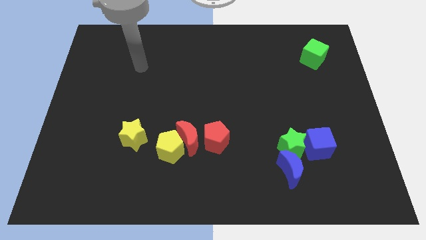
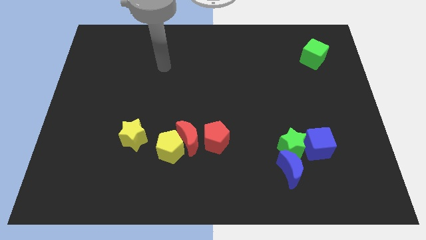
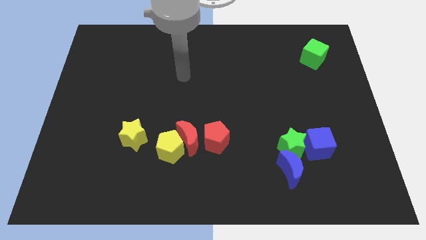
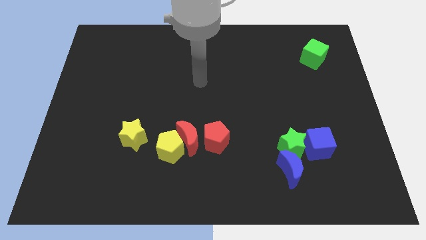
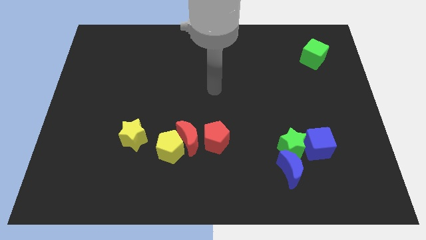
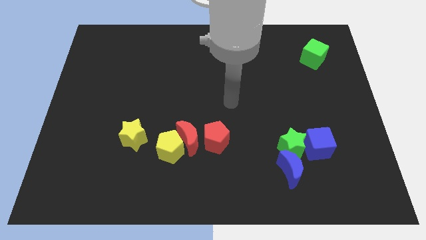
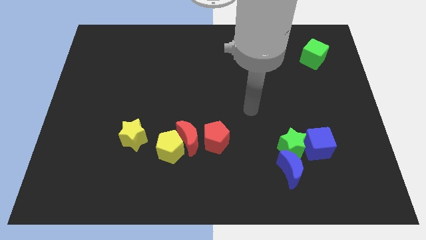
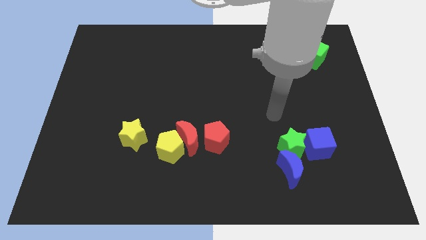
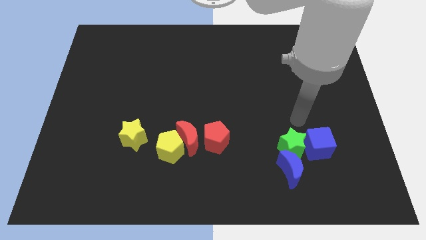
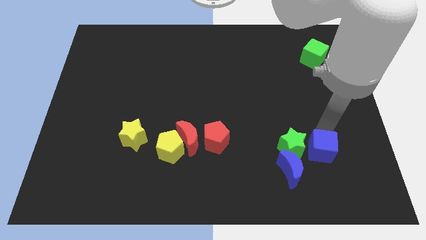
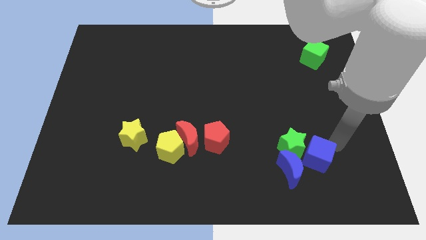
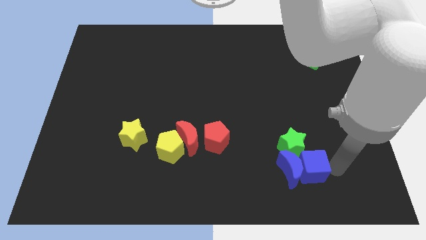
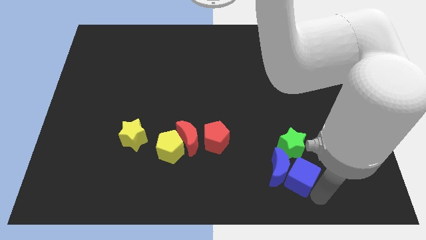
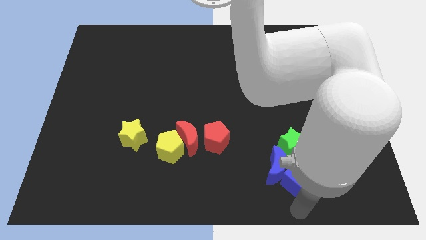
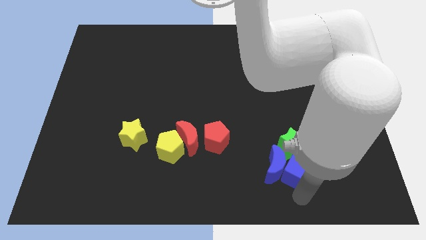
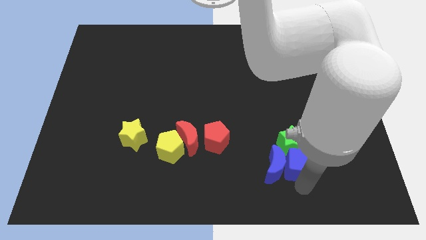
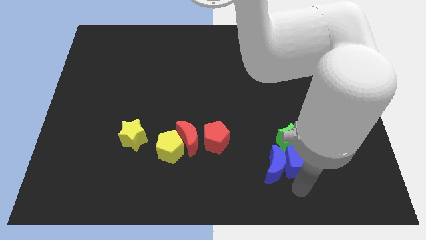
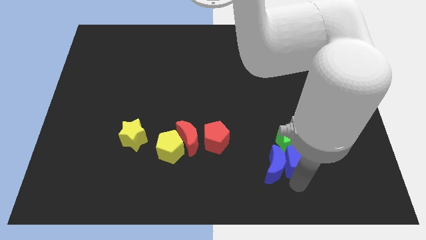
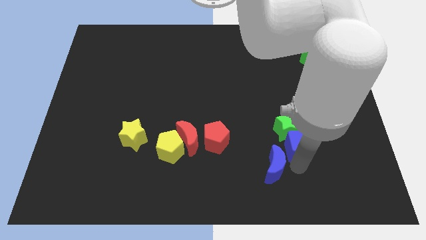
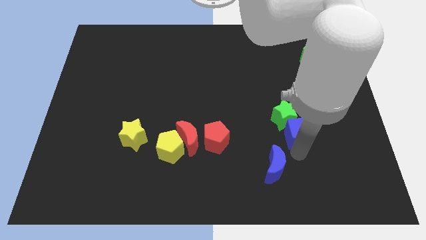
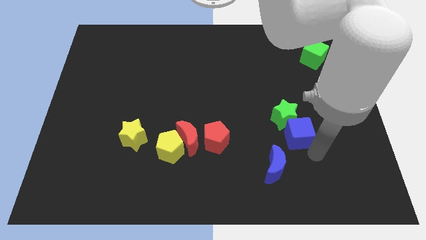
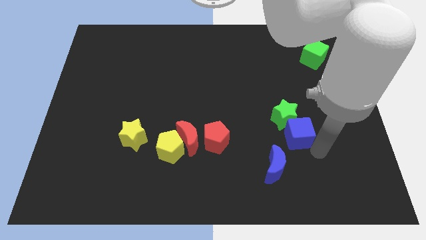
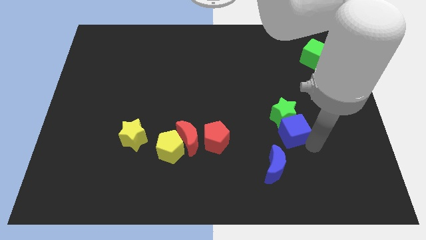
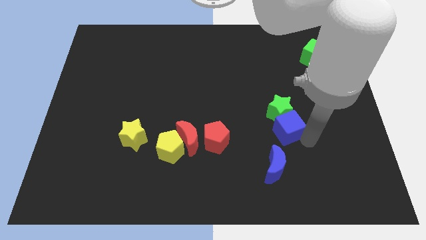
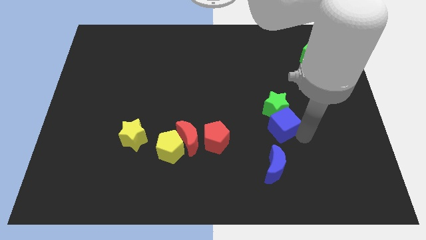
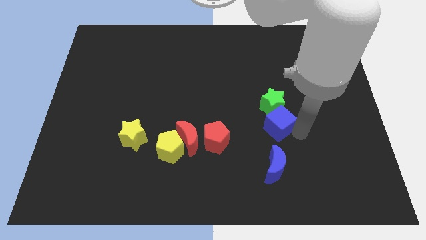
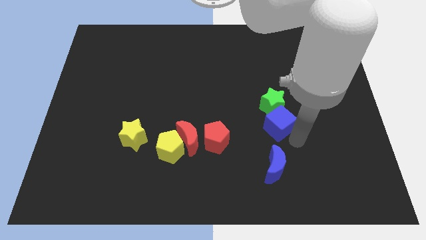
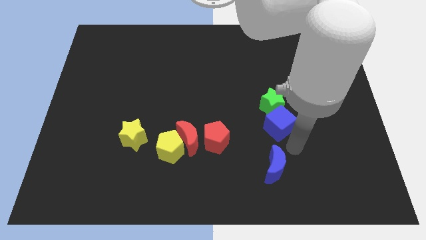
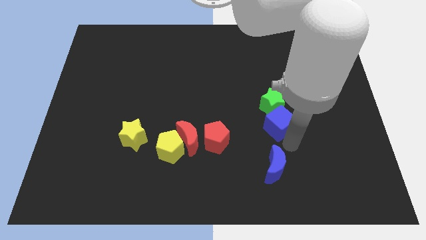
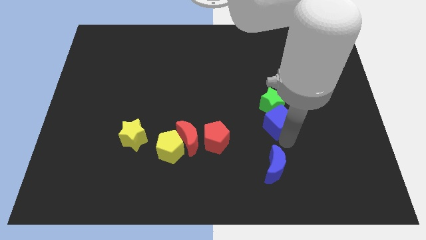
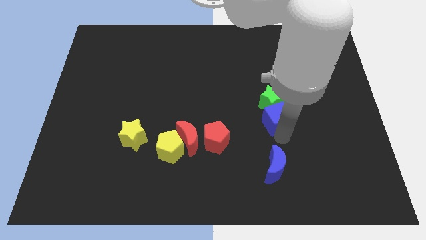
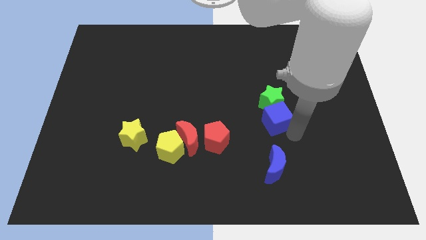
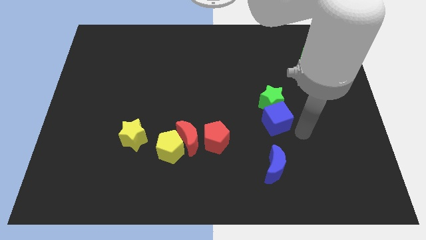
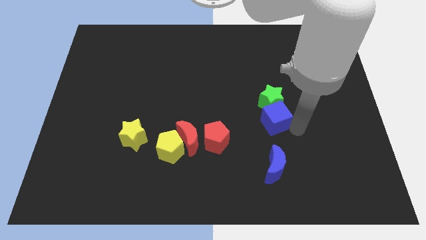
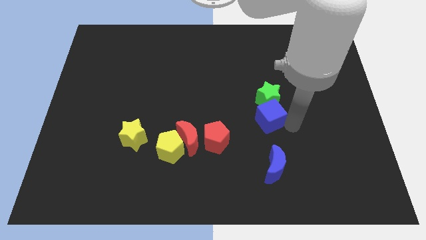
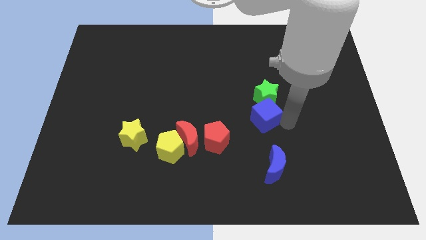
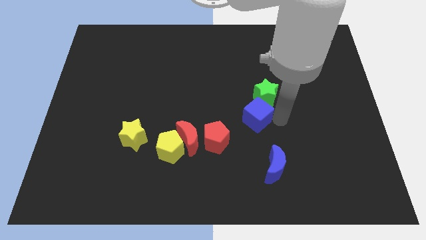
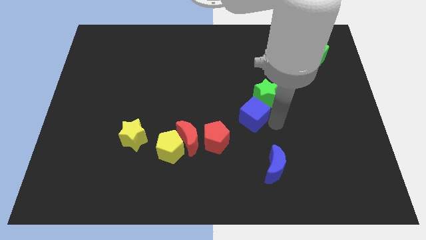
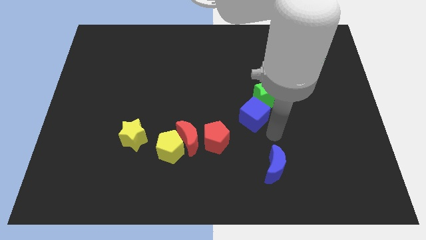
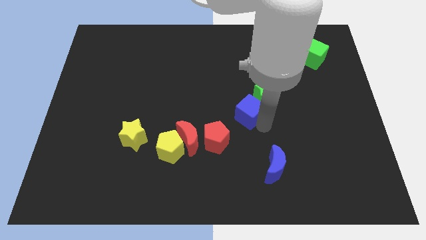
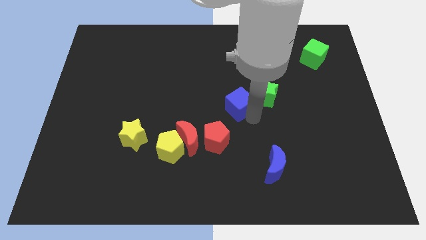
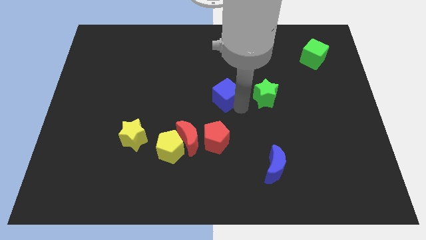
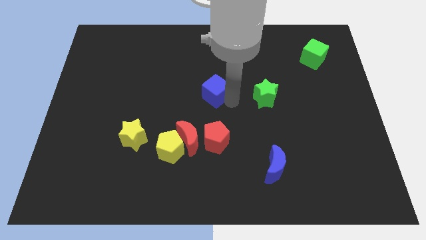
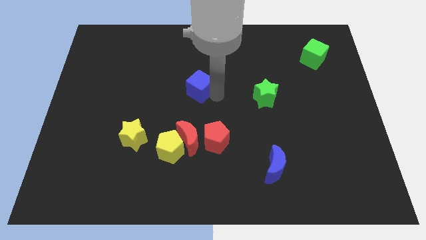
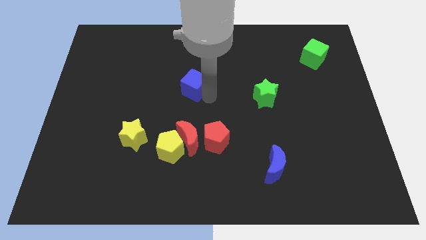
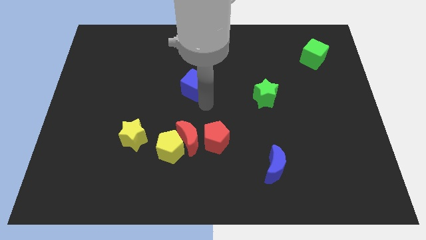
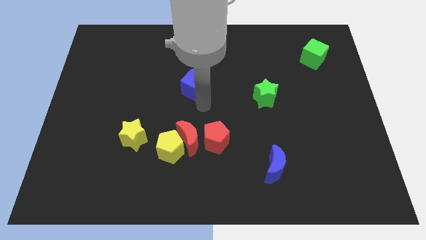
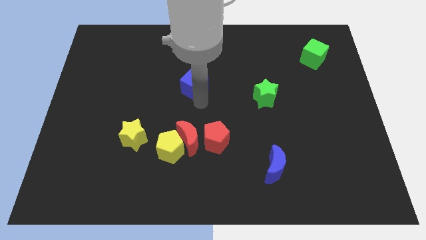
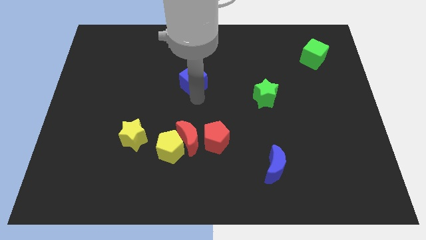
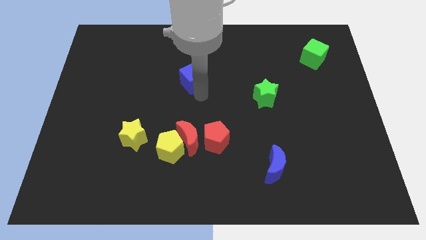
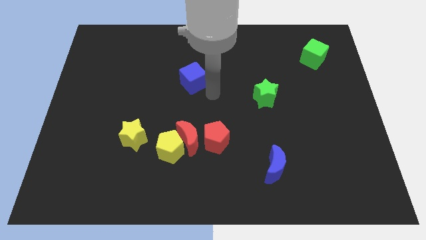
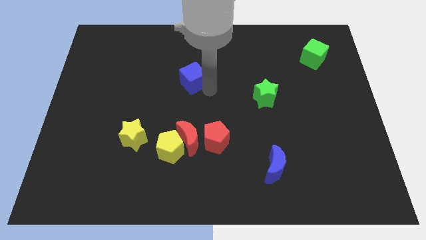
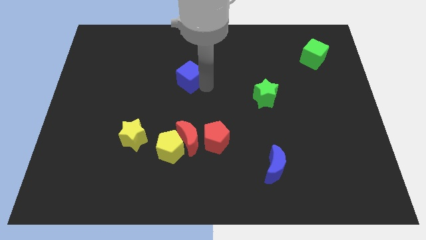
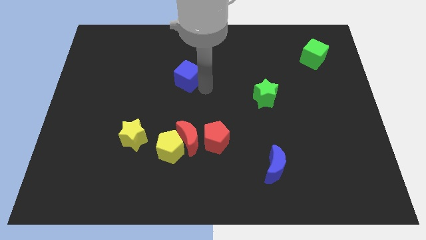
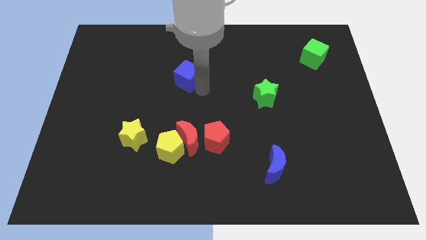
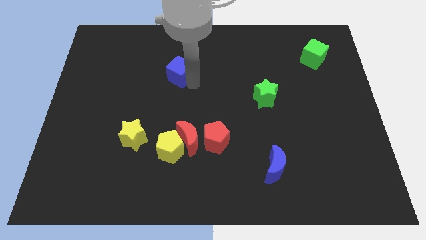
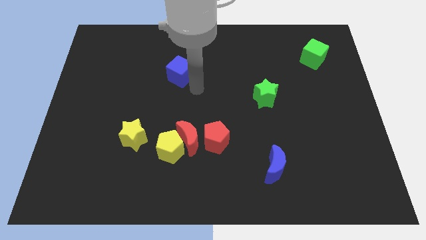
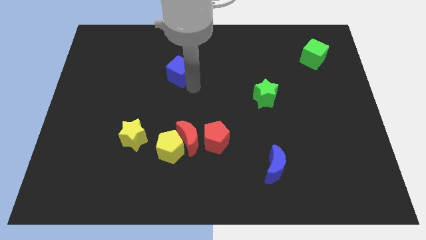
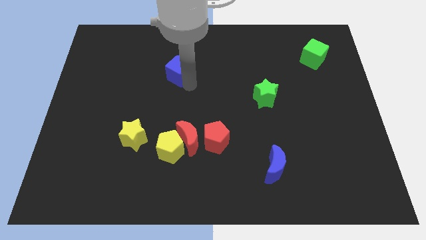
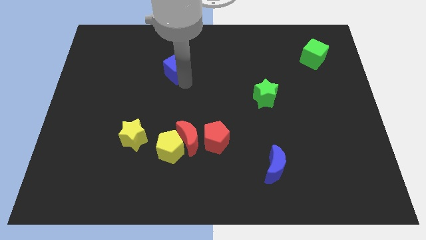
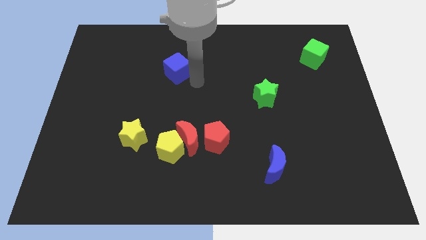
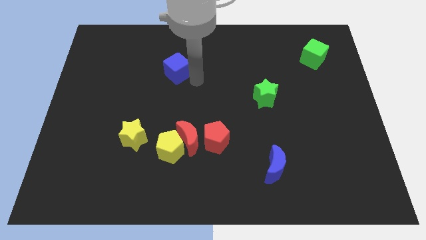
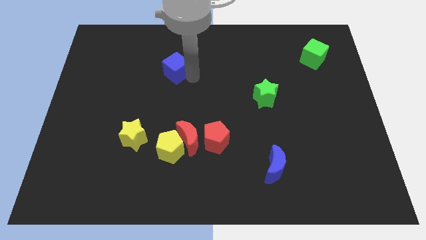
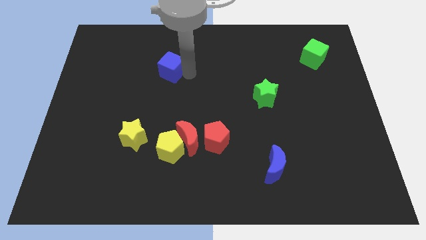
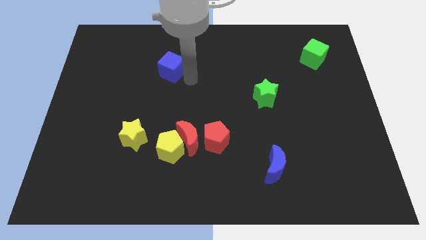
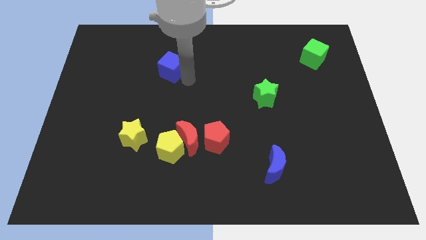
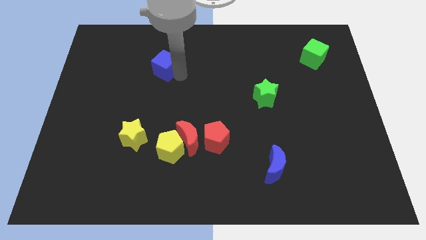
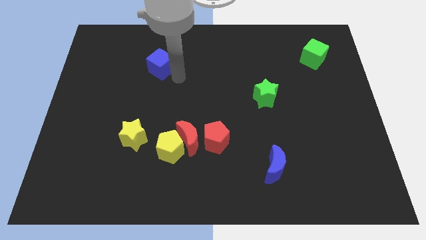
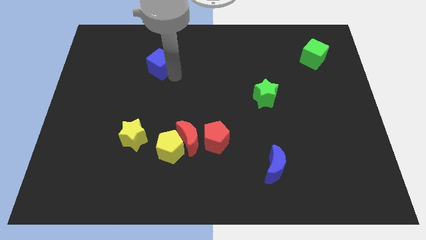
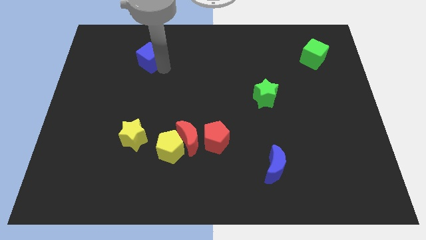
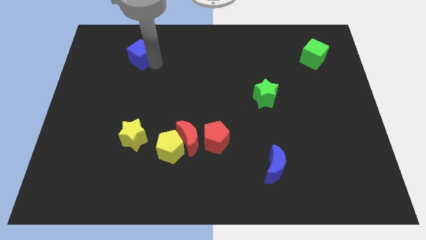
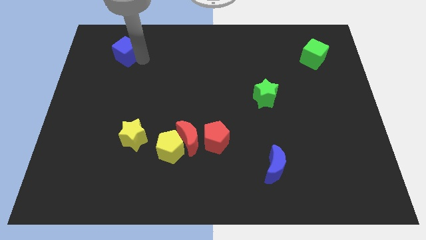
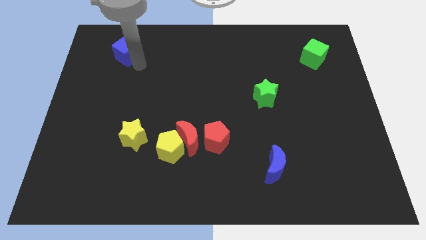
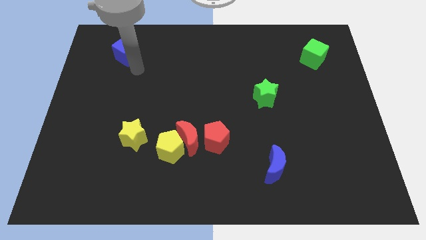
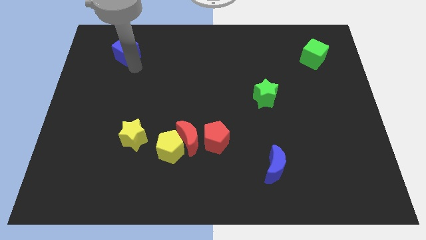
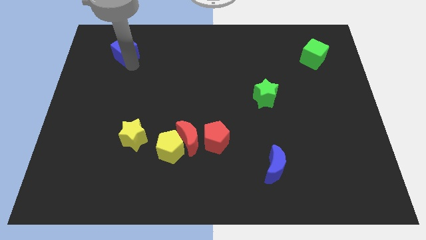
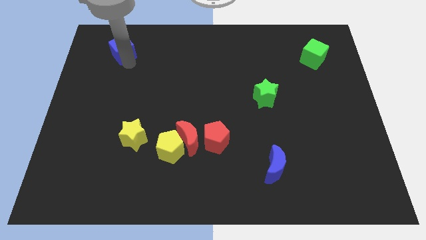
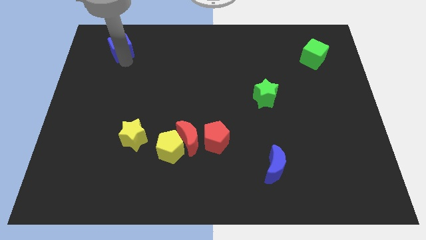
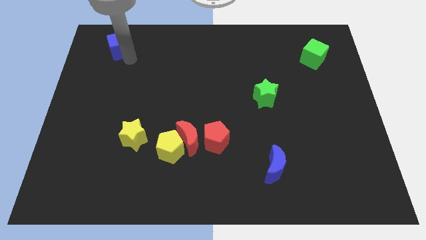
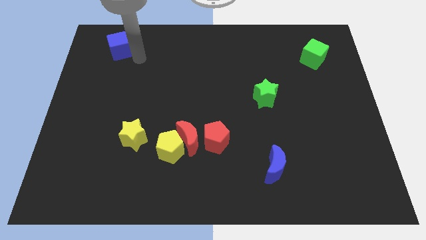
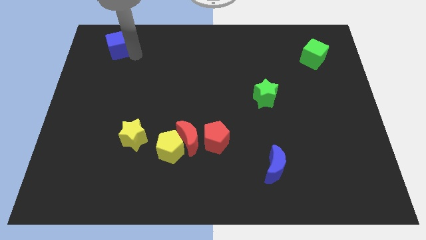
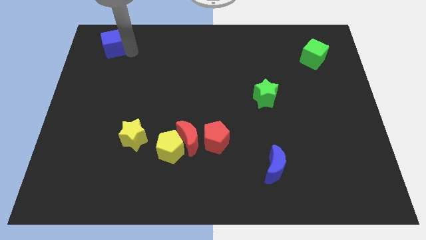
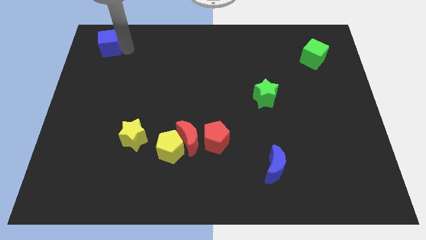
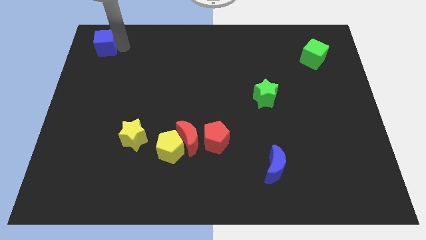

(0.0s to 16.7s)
push the blue cube to the upper left corner
